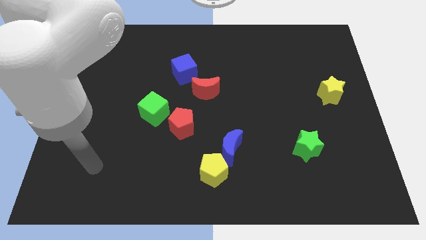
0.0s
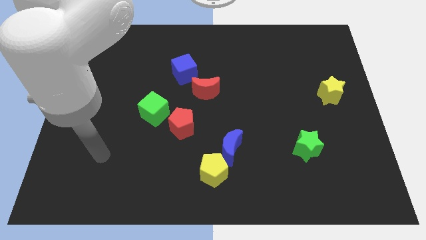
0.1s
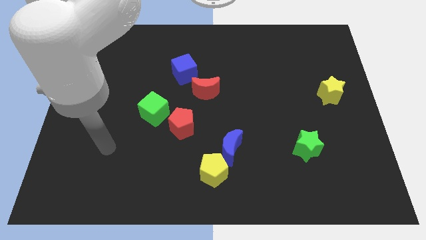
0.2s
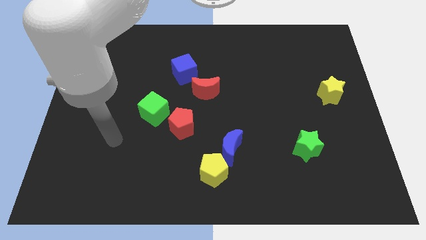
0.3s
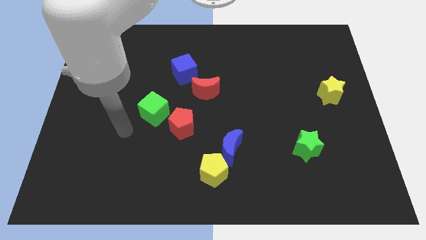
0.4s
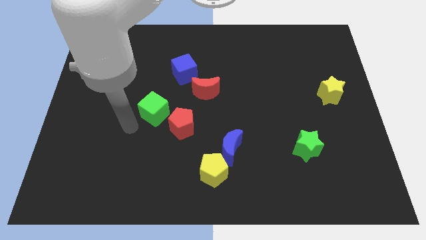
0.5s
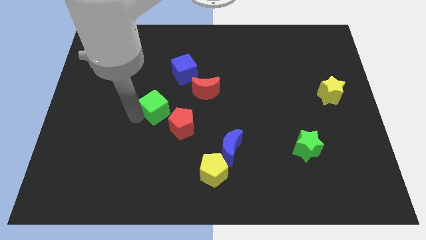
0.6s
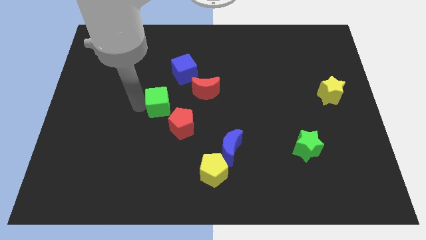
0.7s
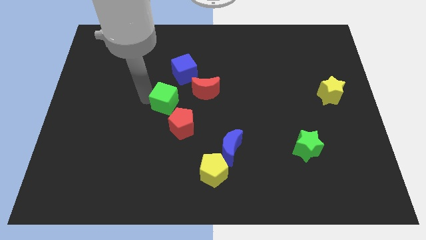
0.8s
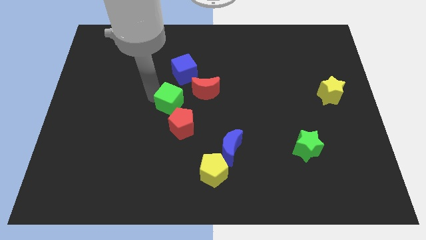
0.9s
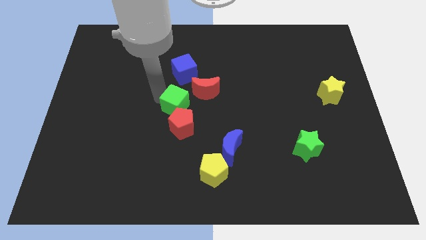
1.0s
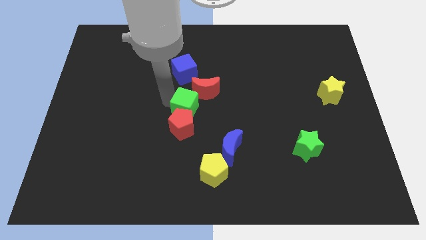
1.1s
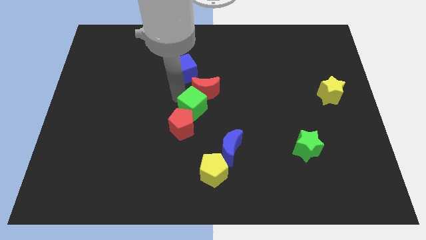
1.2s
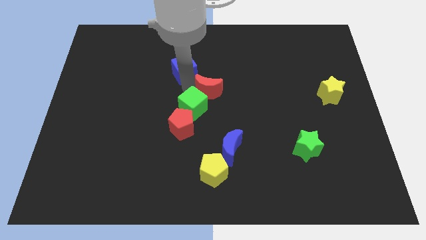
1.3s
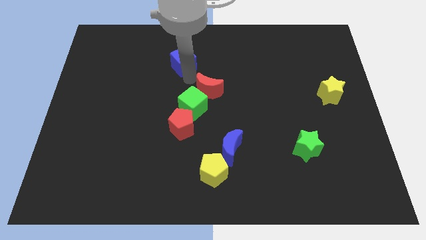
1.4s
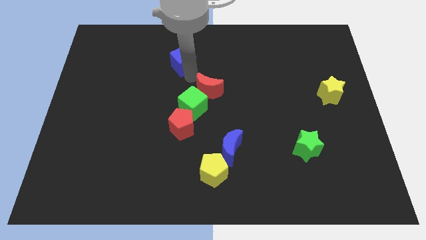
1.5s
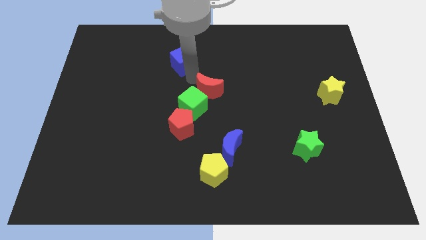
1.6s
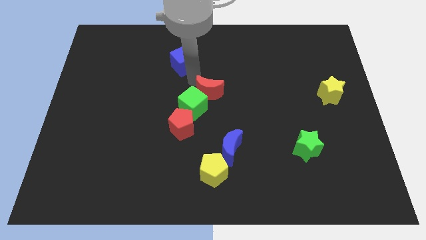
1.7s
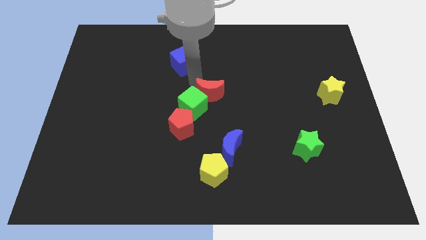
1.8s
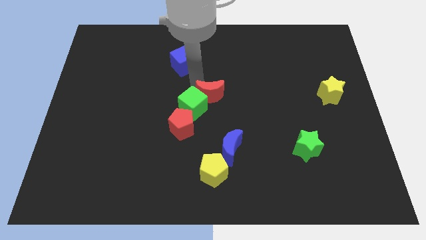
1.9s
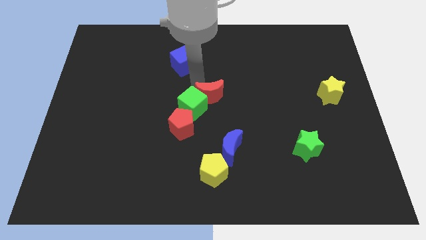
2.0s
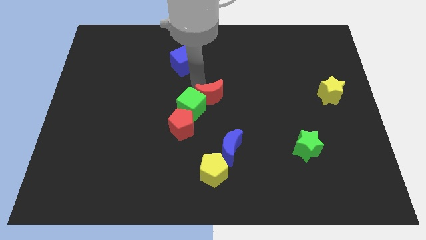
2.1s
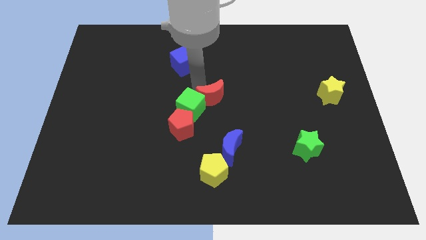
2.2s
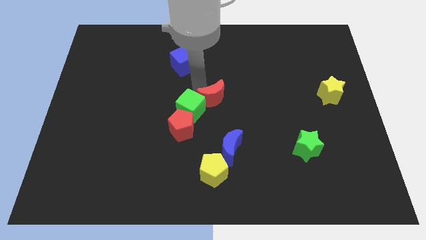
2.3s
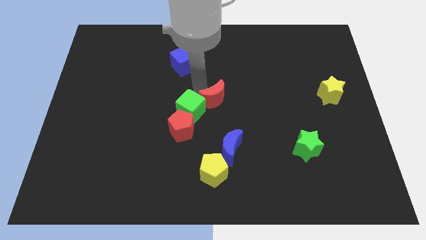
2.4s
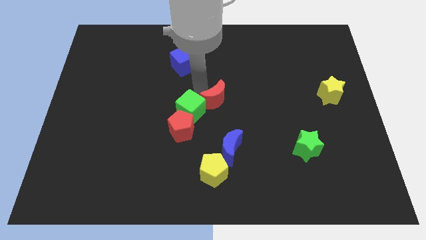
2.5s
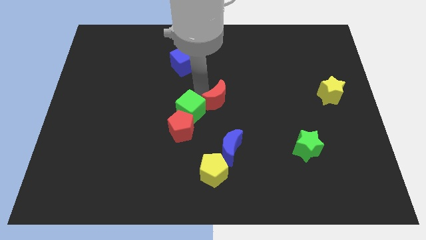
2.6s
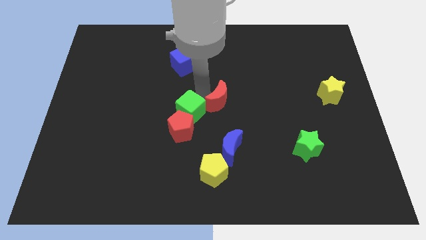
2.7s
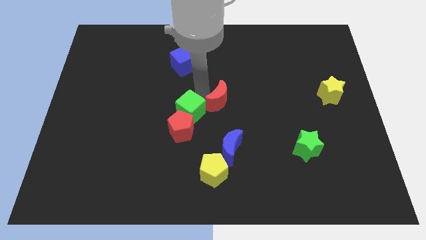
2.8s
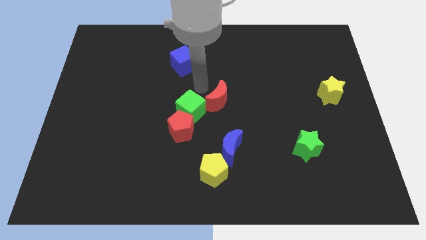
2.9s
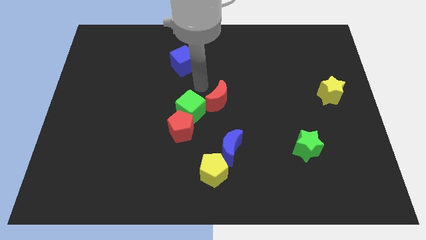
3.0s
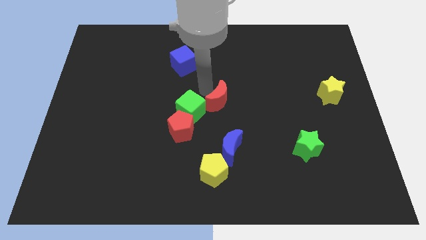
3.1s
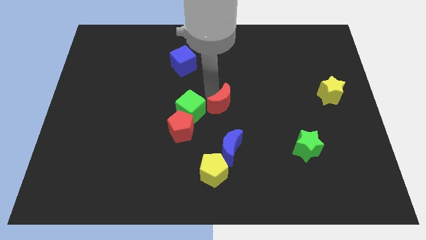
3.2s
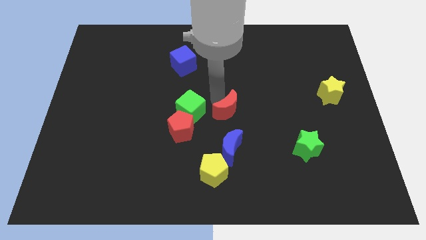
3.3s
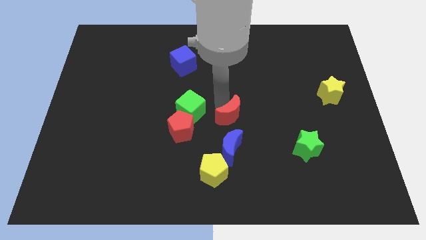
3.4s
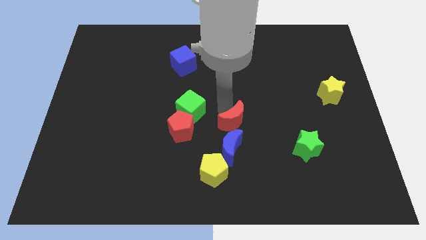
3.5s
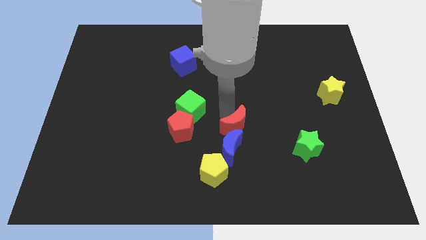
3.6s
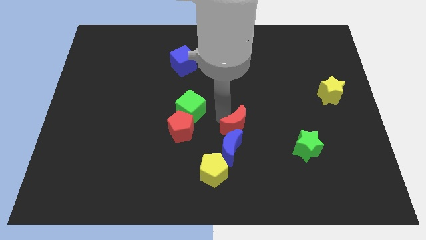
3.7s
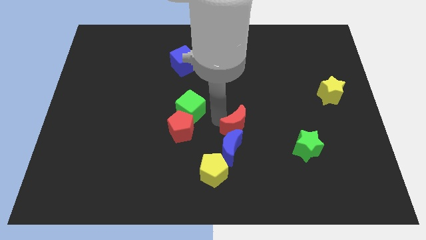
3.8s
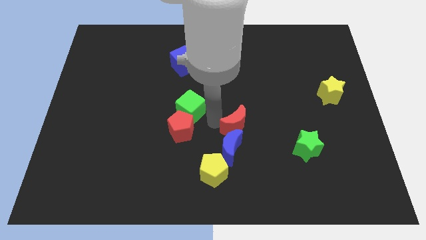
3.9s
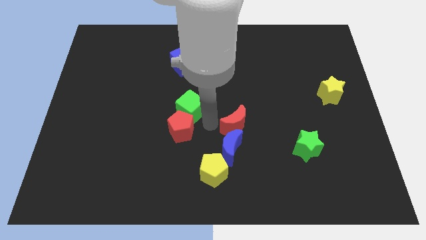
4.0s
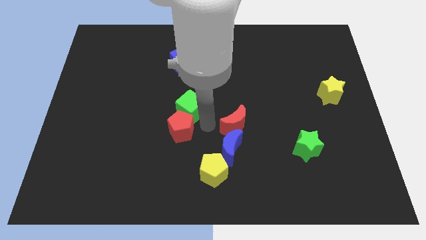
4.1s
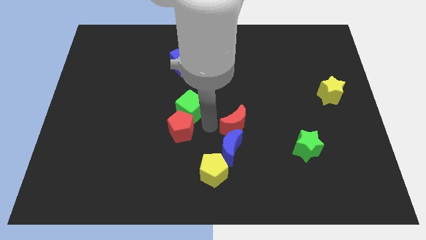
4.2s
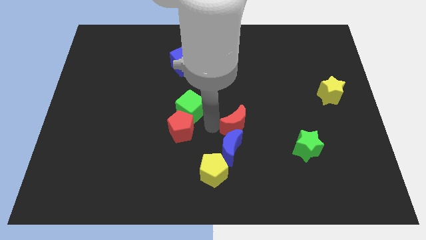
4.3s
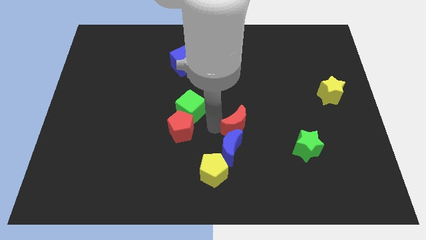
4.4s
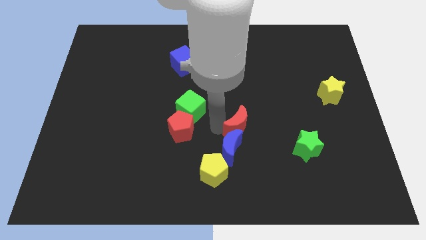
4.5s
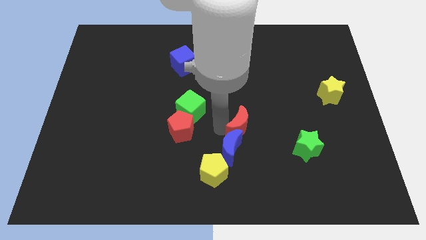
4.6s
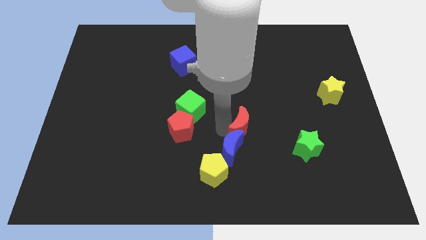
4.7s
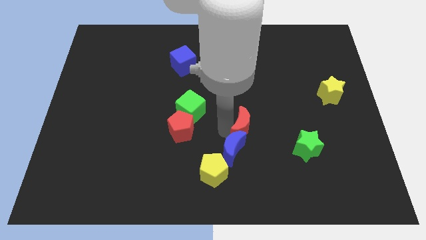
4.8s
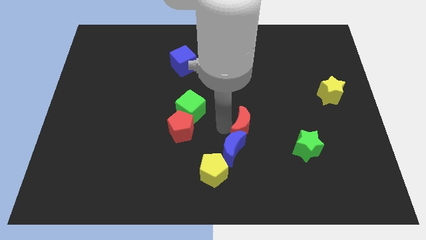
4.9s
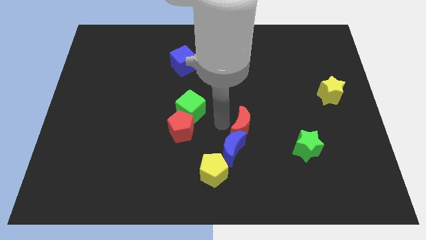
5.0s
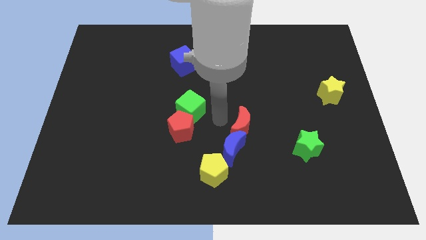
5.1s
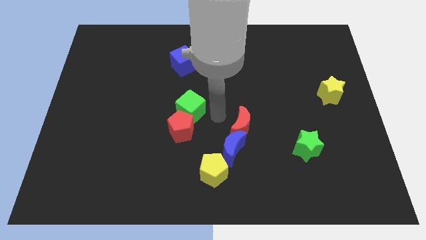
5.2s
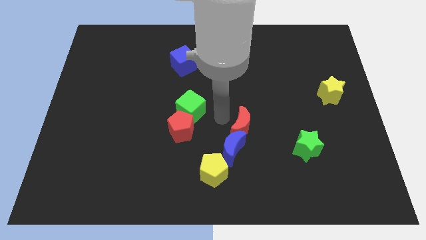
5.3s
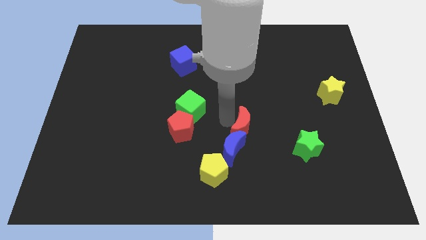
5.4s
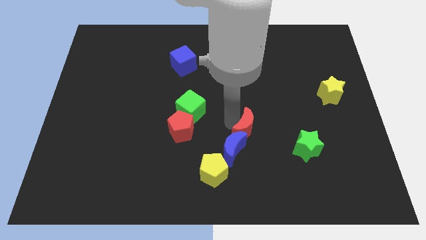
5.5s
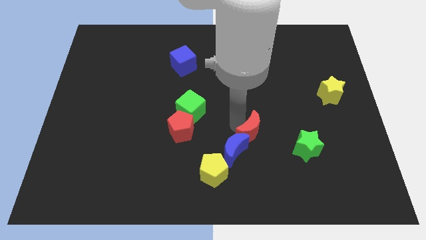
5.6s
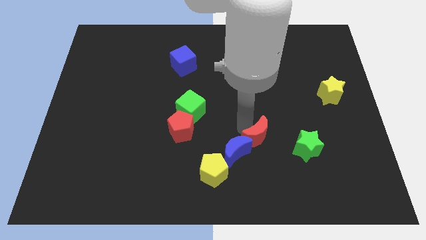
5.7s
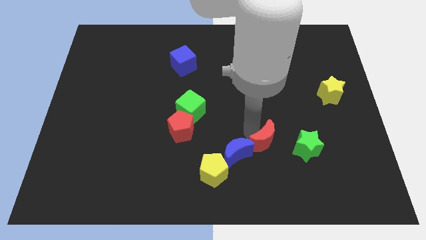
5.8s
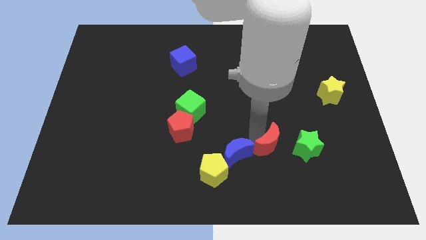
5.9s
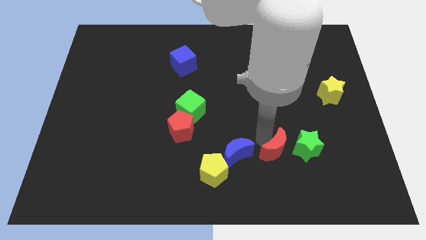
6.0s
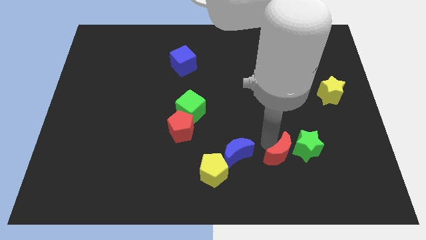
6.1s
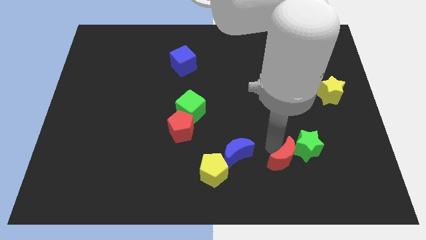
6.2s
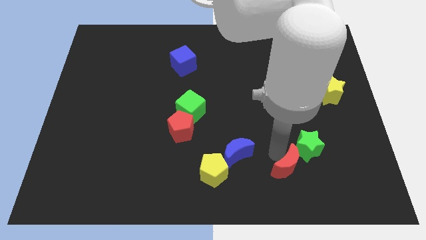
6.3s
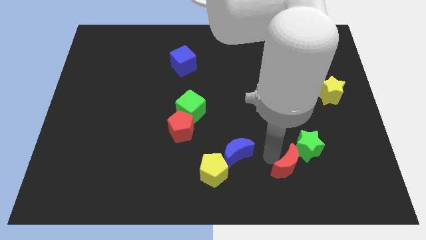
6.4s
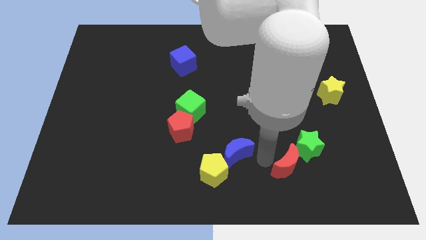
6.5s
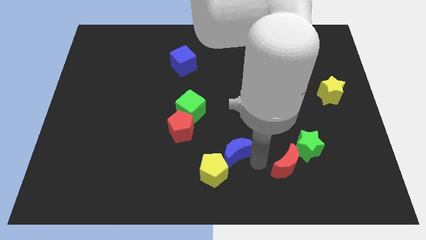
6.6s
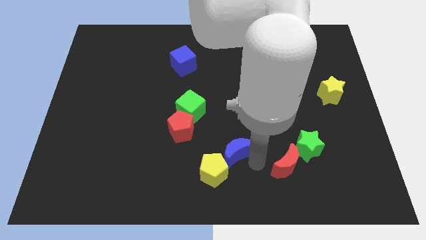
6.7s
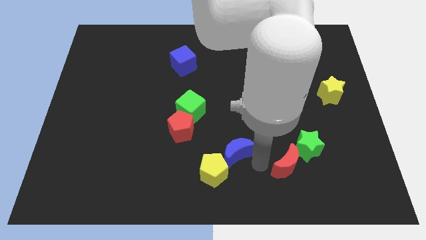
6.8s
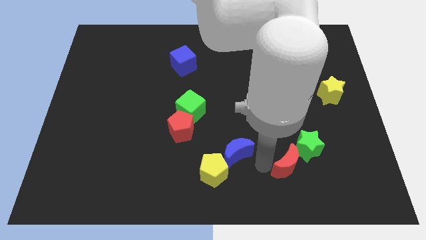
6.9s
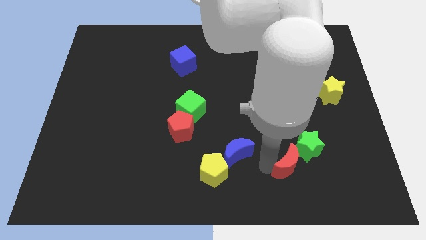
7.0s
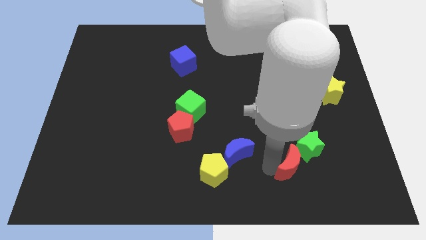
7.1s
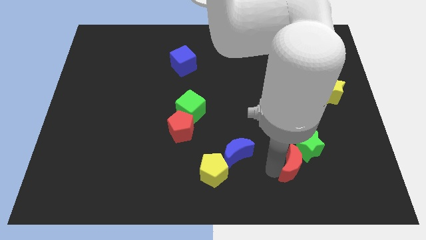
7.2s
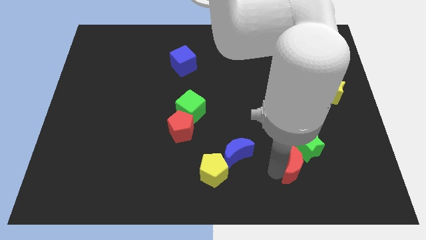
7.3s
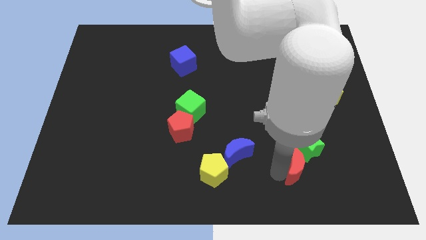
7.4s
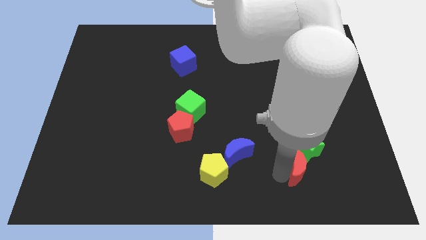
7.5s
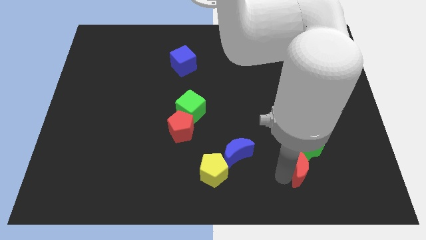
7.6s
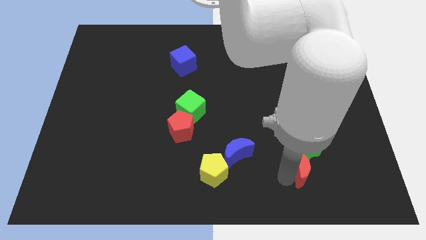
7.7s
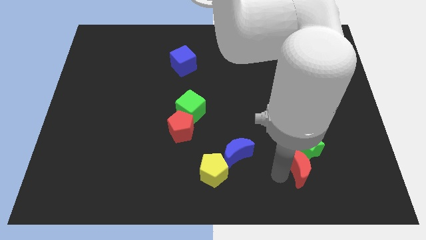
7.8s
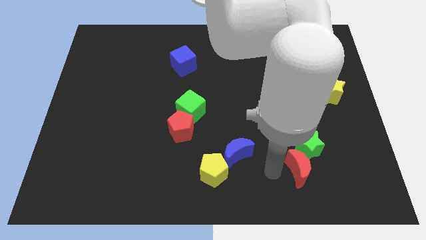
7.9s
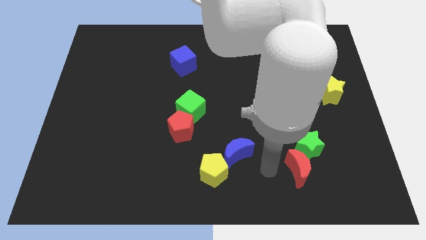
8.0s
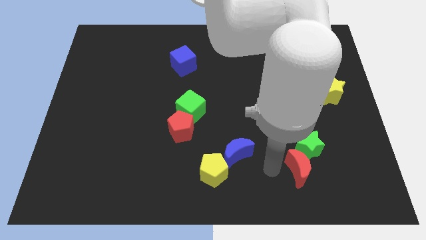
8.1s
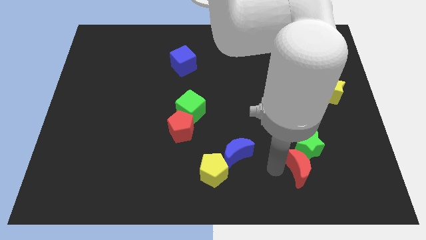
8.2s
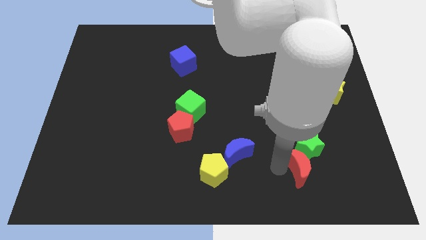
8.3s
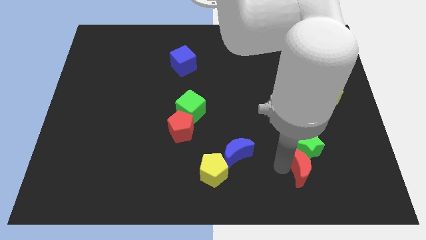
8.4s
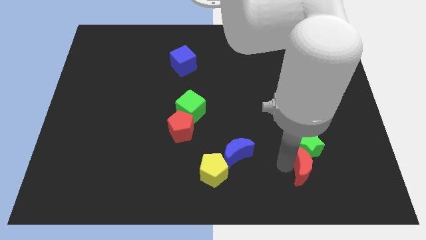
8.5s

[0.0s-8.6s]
slide the red moon to the bottom right side of the green star

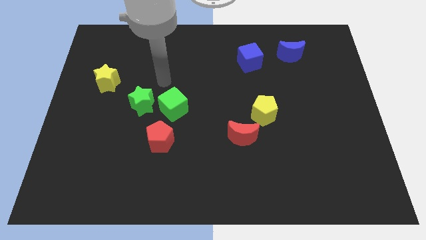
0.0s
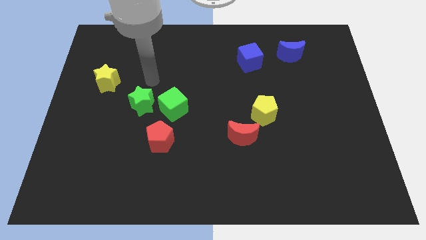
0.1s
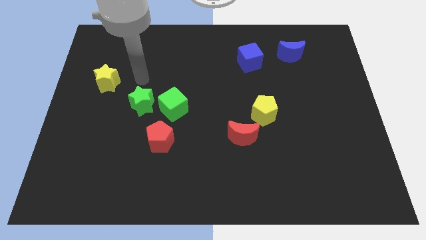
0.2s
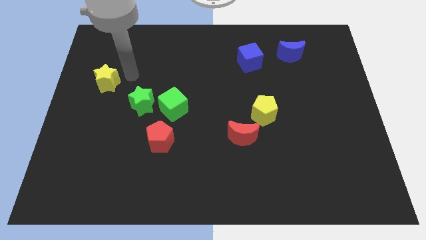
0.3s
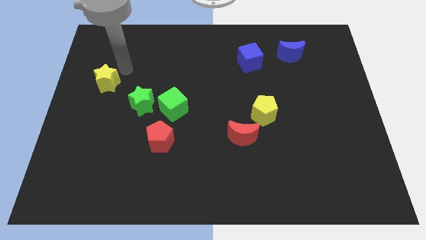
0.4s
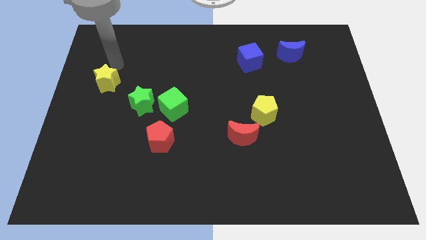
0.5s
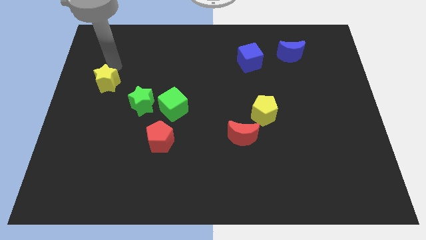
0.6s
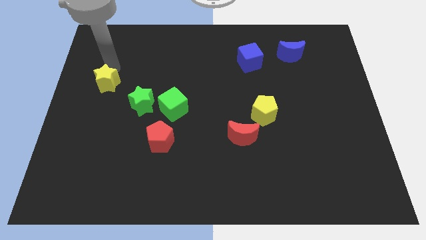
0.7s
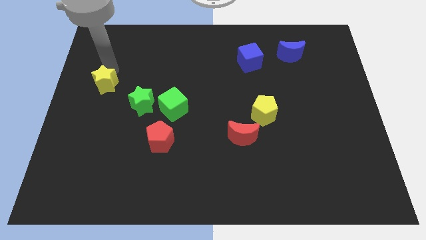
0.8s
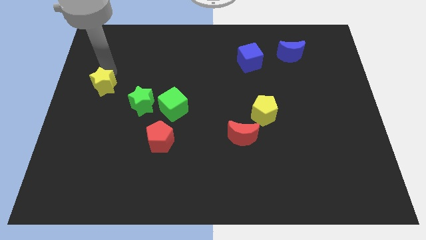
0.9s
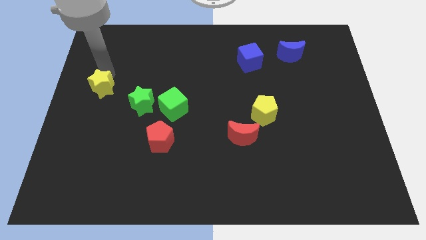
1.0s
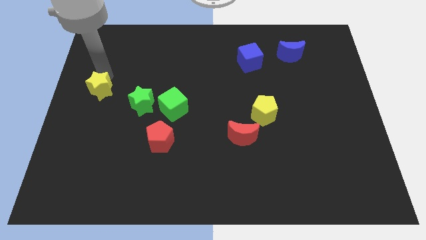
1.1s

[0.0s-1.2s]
slide the yellow star left of the green star
